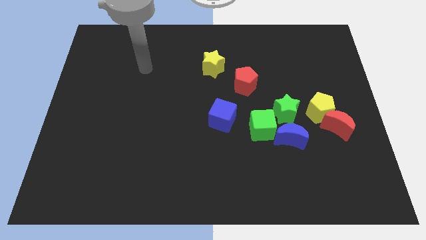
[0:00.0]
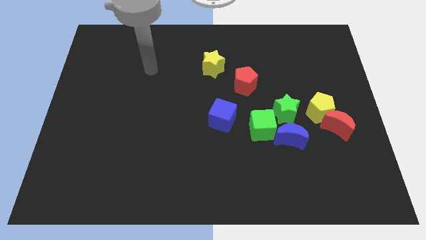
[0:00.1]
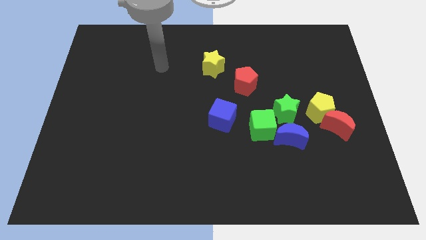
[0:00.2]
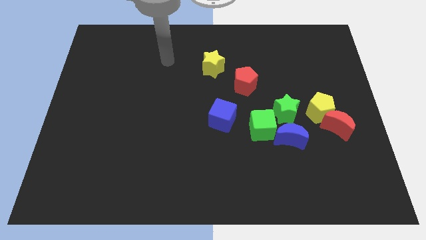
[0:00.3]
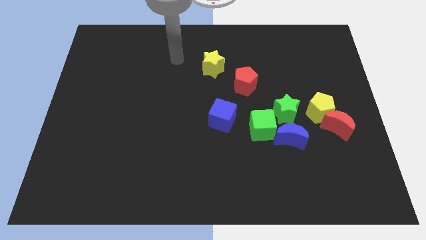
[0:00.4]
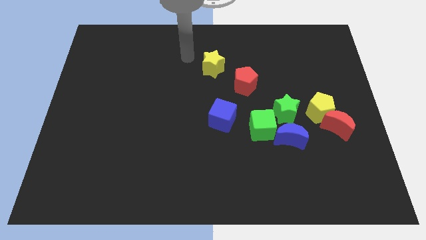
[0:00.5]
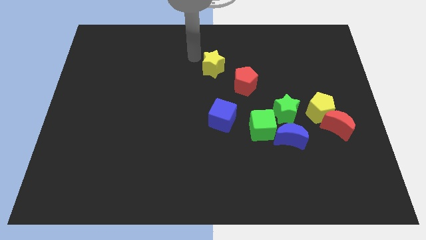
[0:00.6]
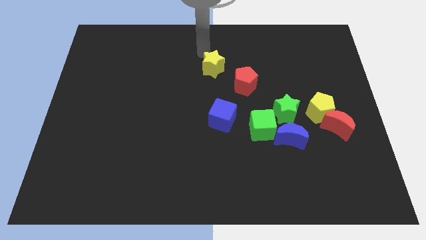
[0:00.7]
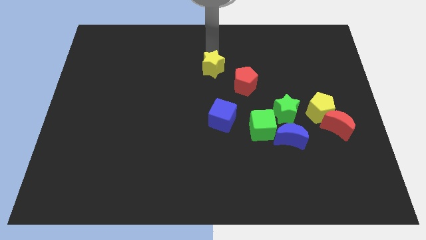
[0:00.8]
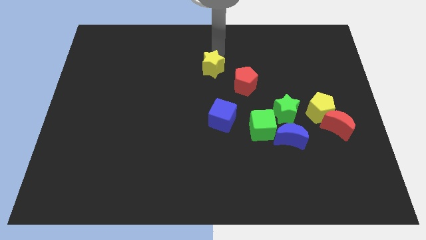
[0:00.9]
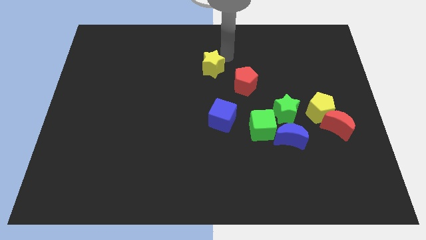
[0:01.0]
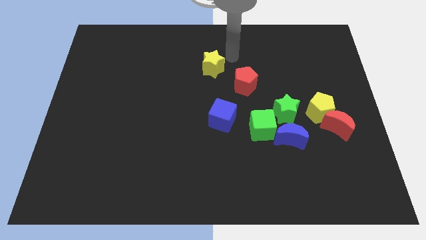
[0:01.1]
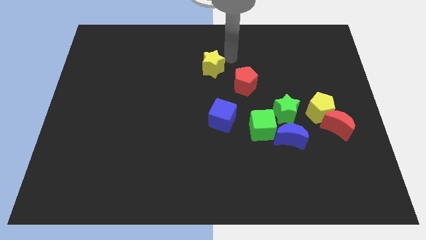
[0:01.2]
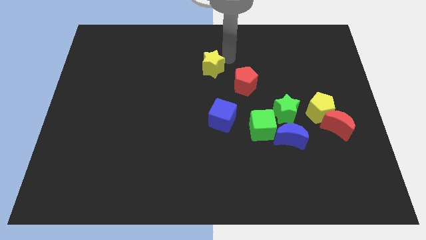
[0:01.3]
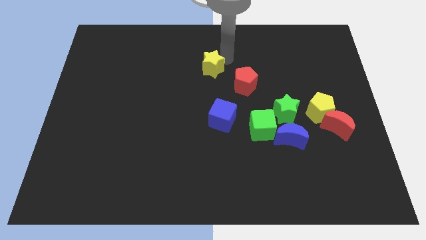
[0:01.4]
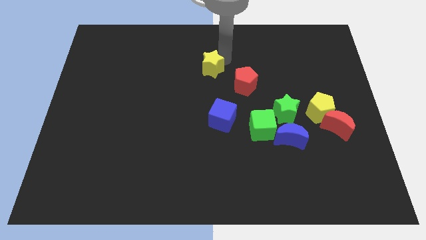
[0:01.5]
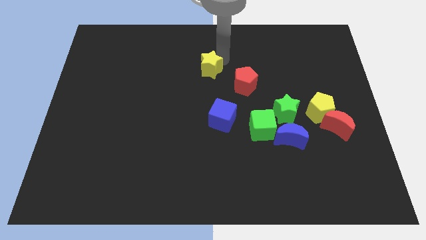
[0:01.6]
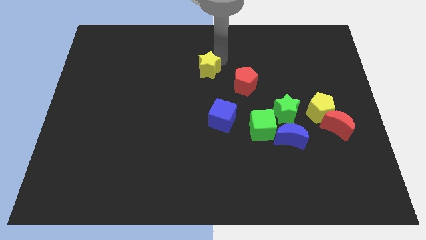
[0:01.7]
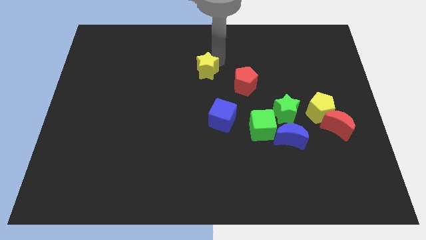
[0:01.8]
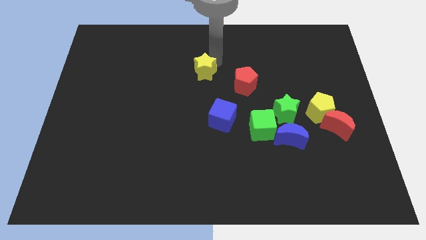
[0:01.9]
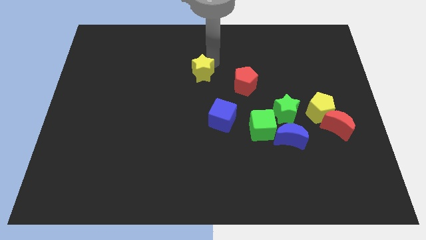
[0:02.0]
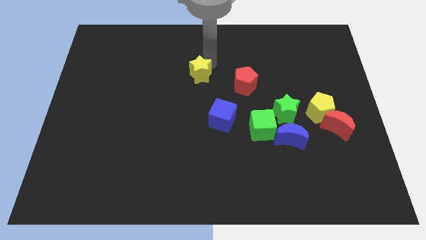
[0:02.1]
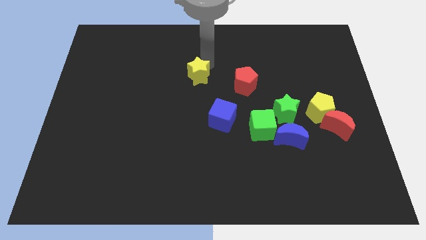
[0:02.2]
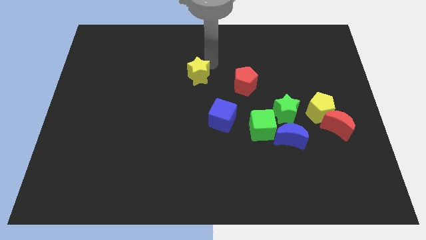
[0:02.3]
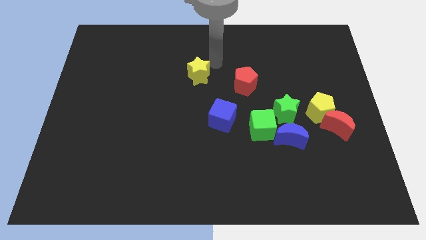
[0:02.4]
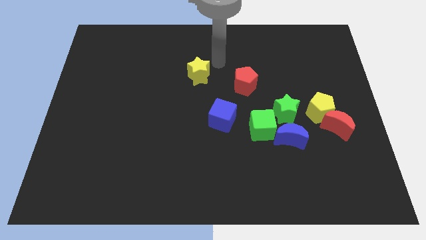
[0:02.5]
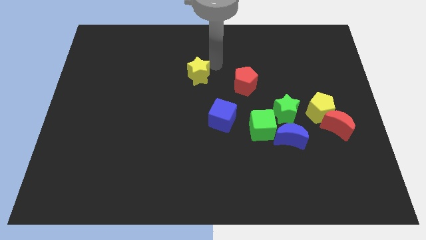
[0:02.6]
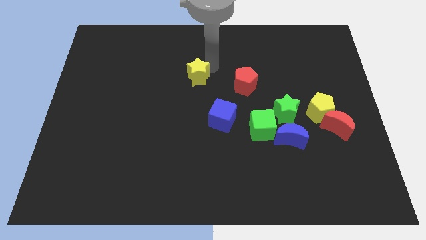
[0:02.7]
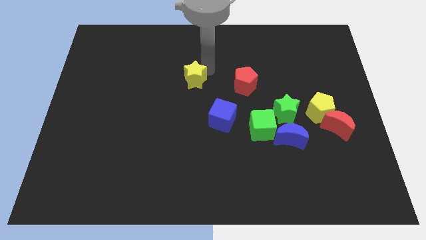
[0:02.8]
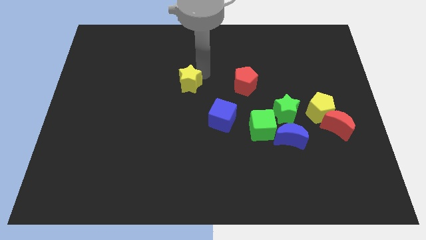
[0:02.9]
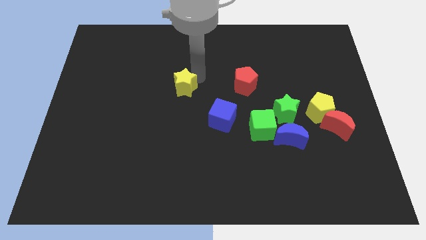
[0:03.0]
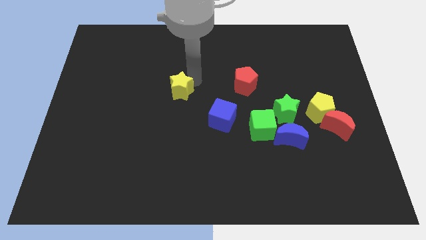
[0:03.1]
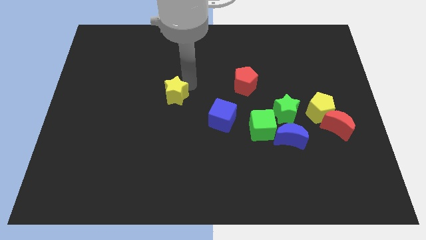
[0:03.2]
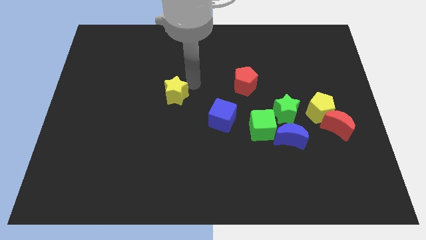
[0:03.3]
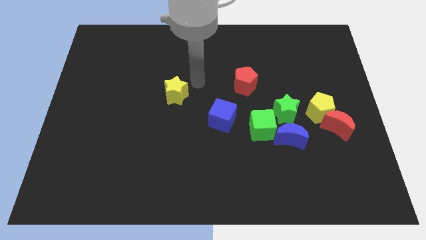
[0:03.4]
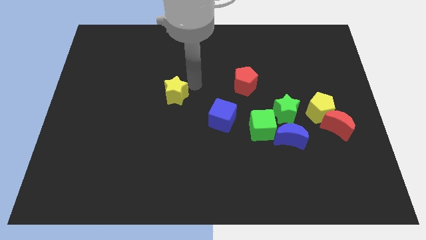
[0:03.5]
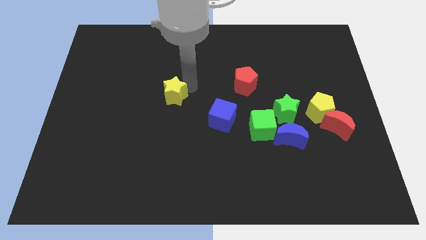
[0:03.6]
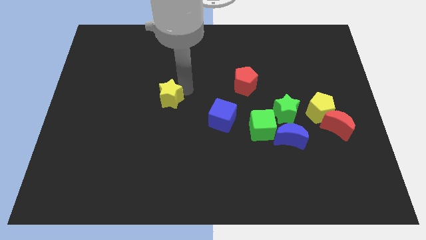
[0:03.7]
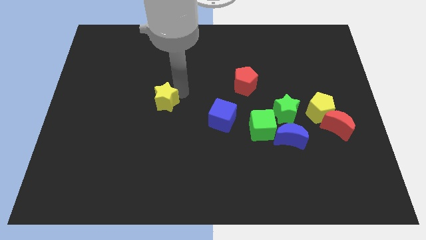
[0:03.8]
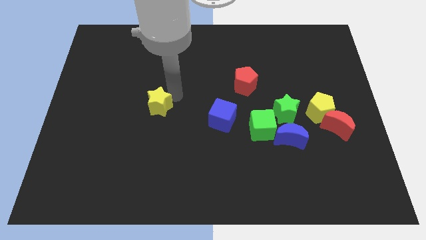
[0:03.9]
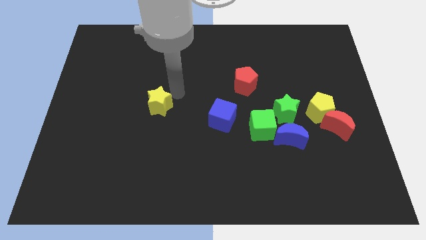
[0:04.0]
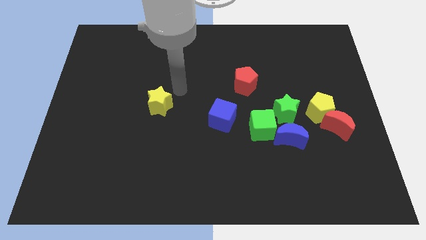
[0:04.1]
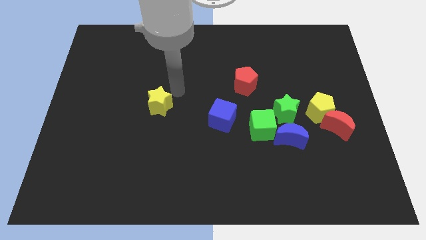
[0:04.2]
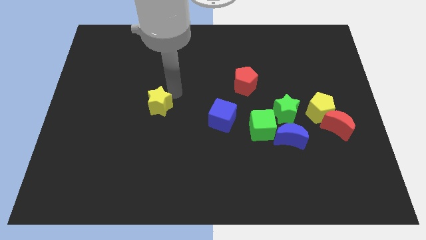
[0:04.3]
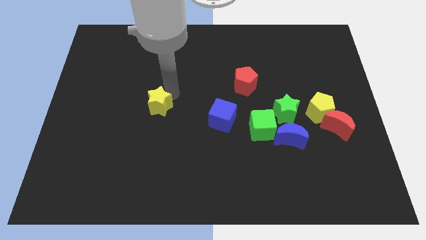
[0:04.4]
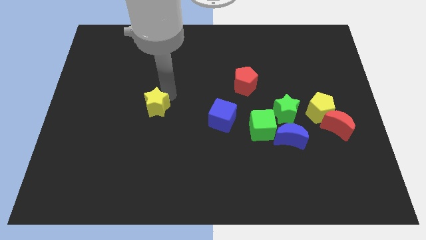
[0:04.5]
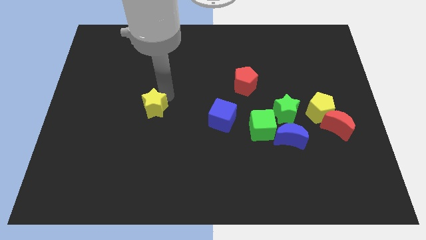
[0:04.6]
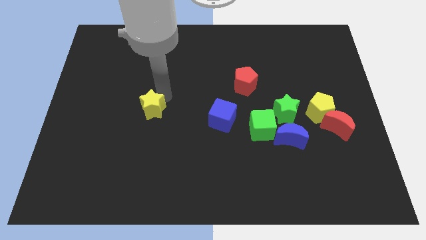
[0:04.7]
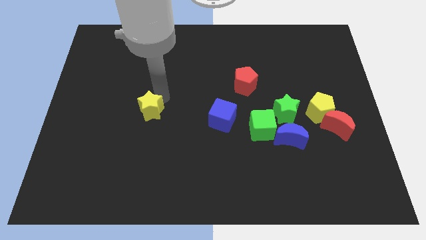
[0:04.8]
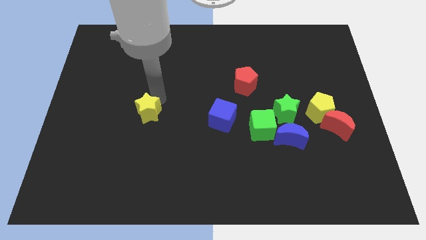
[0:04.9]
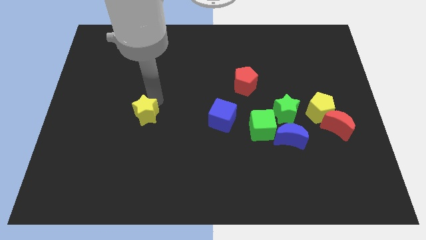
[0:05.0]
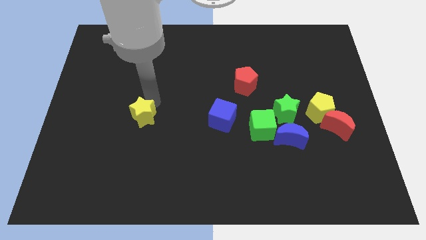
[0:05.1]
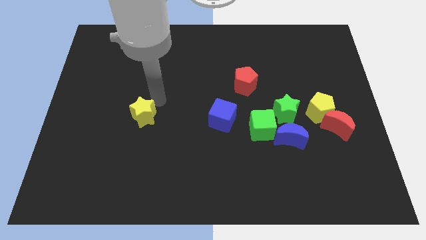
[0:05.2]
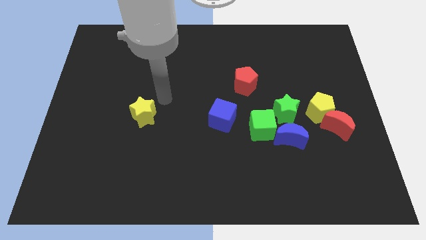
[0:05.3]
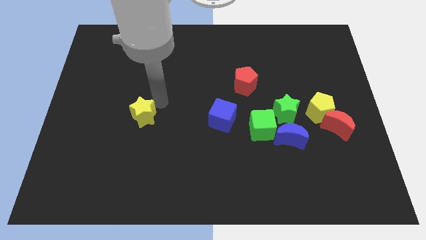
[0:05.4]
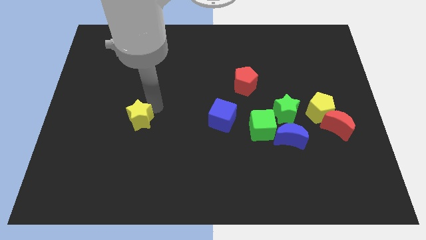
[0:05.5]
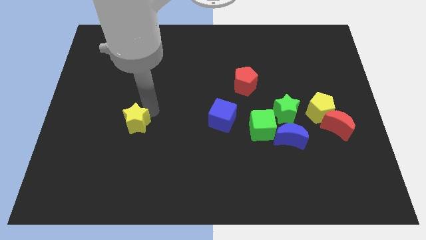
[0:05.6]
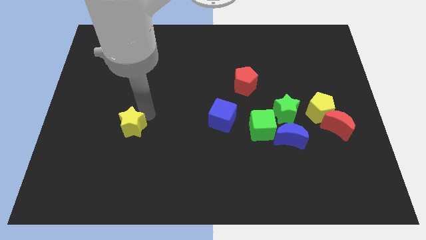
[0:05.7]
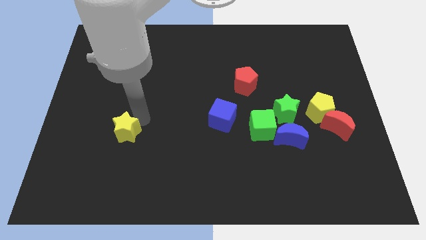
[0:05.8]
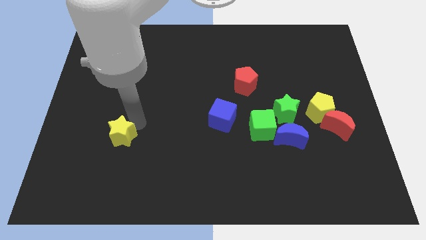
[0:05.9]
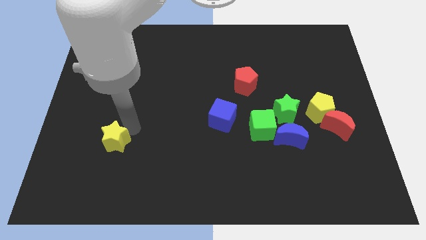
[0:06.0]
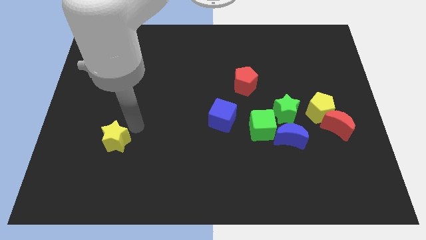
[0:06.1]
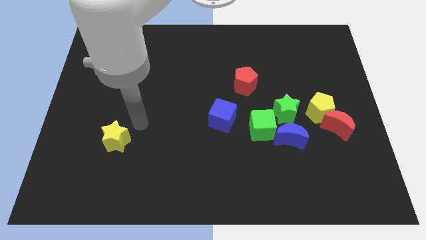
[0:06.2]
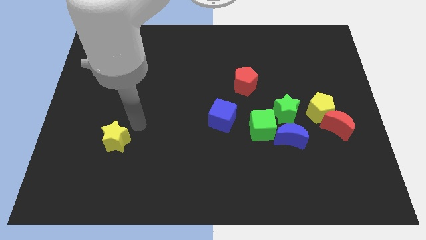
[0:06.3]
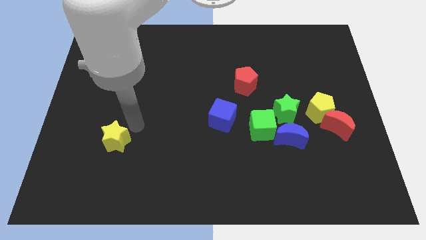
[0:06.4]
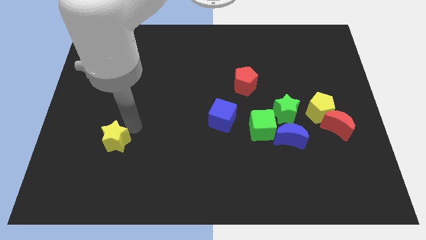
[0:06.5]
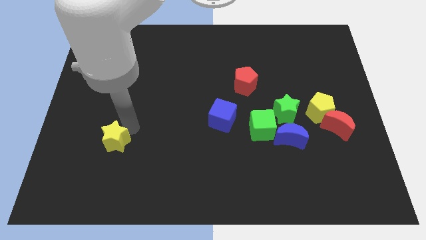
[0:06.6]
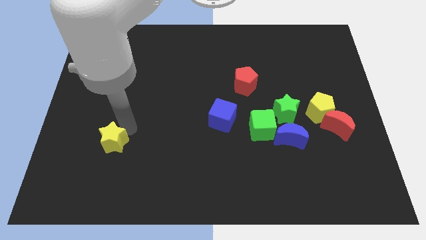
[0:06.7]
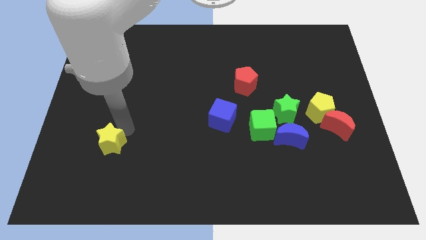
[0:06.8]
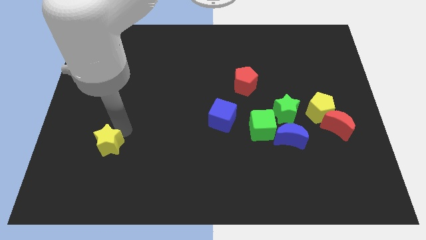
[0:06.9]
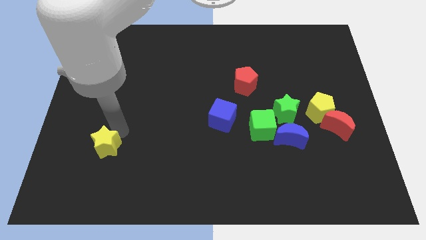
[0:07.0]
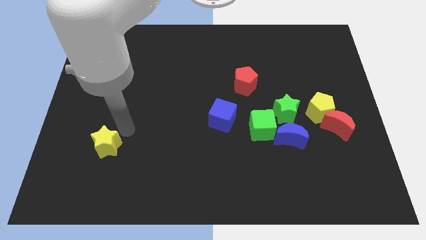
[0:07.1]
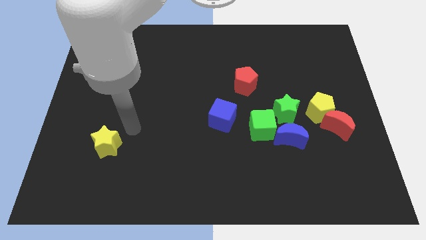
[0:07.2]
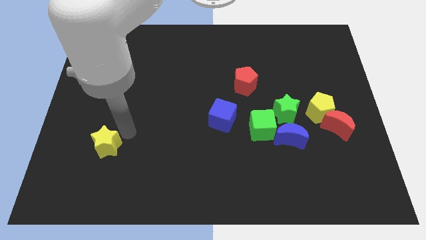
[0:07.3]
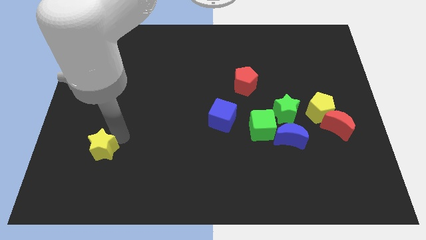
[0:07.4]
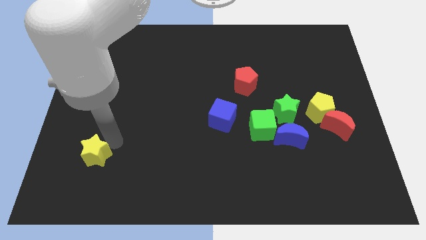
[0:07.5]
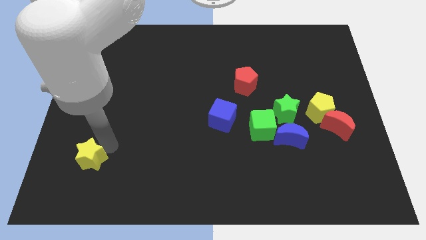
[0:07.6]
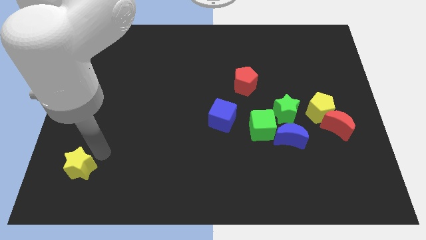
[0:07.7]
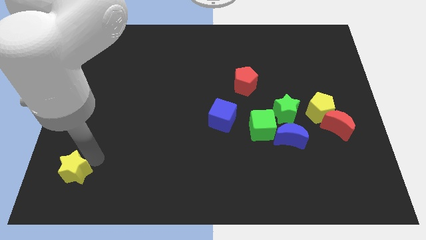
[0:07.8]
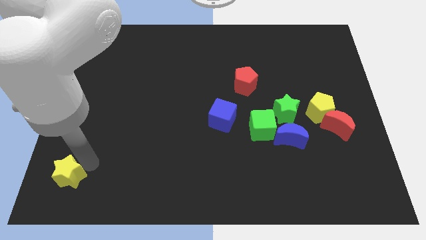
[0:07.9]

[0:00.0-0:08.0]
slide the yellow star to the bottom left of the board
